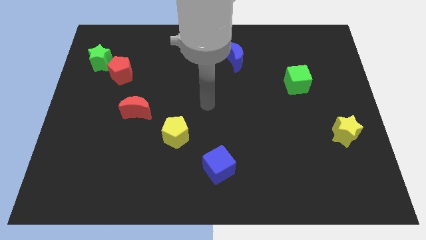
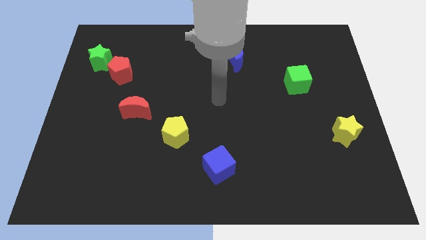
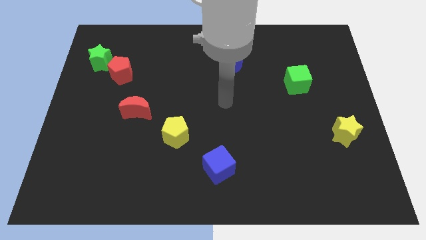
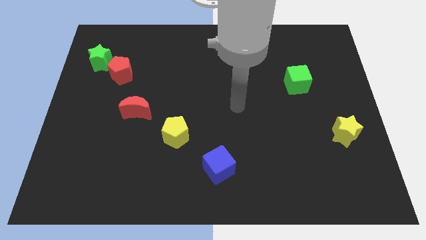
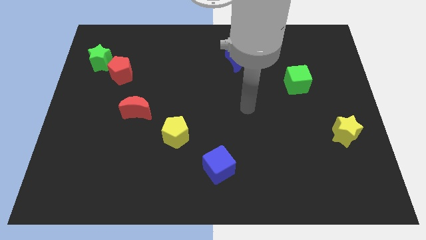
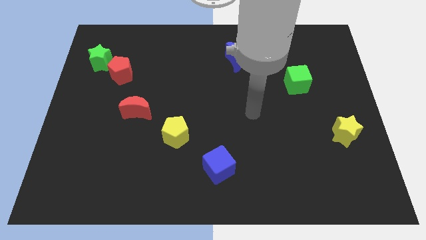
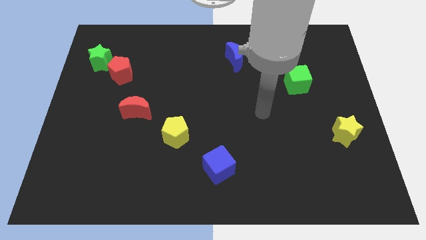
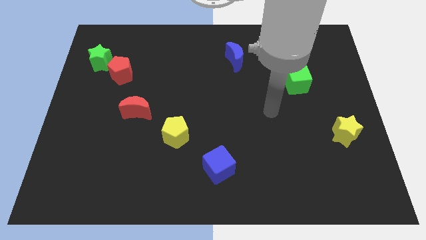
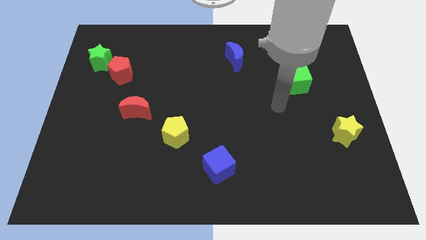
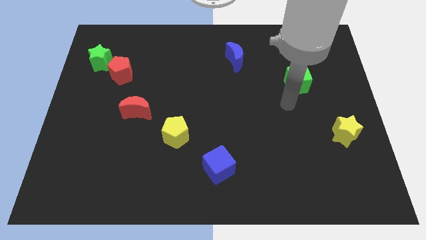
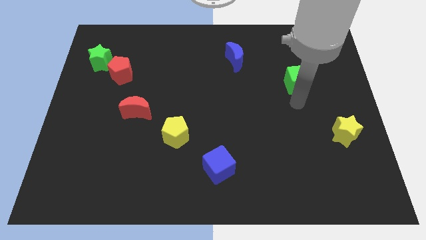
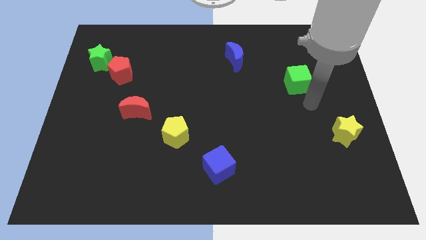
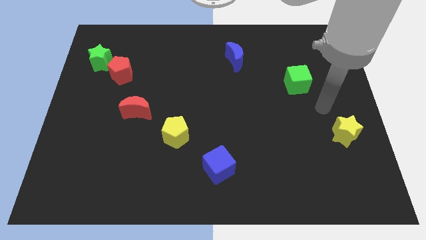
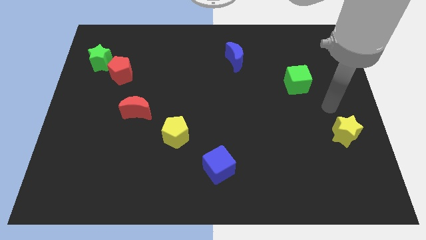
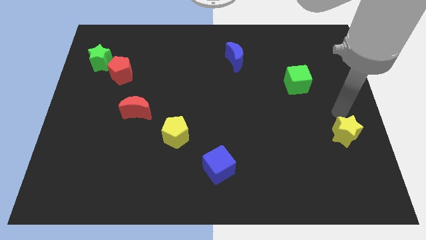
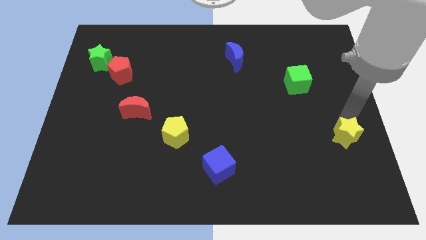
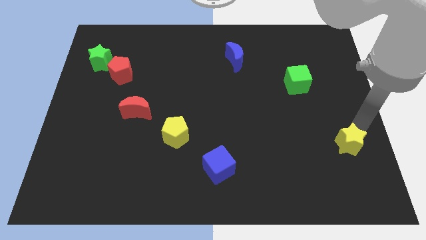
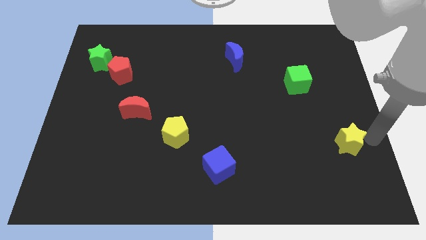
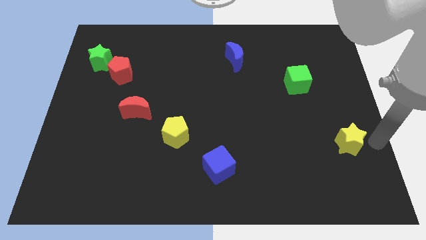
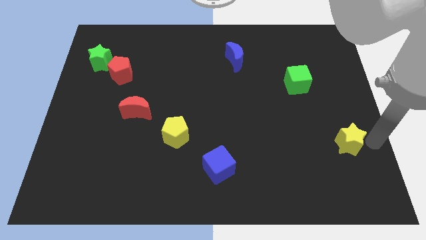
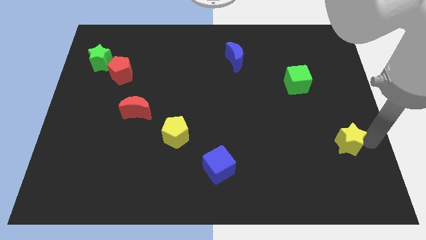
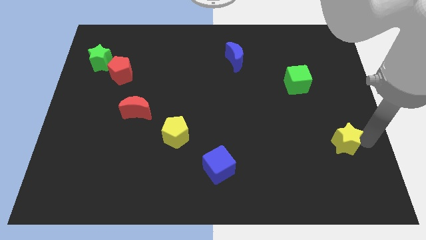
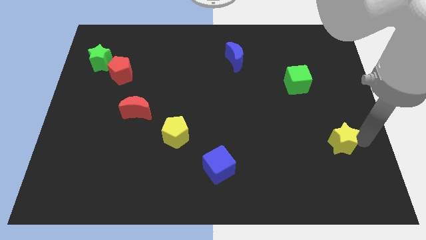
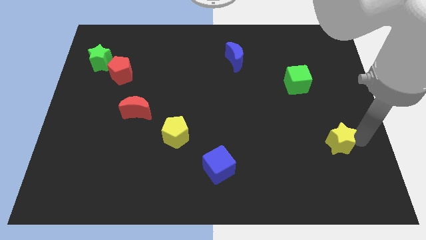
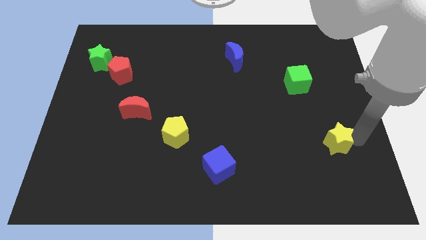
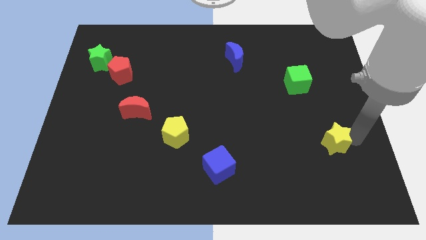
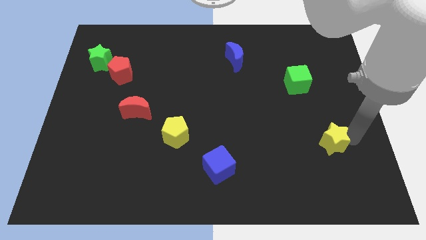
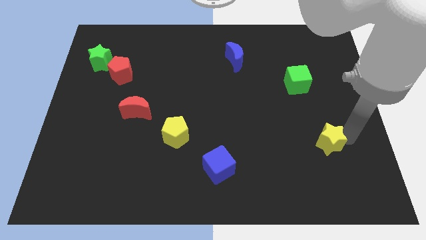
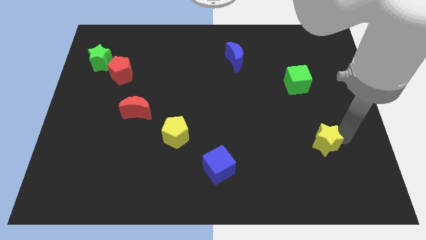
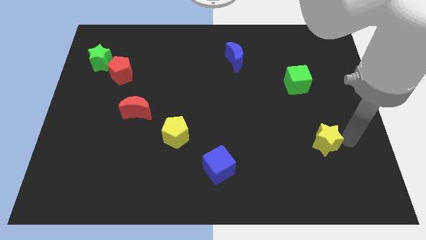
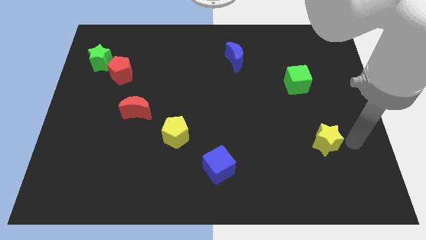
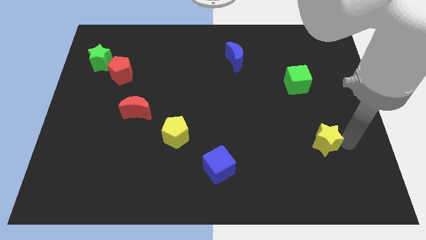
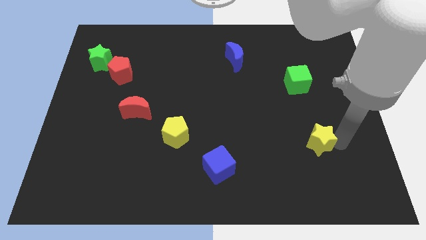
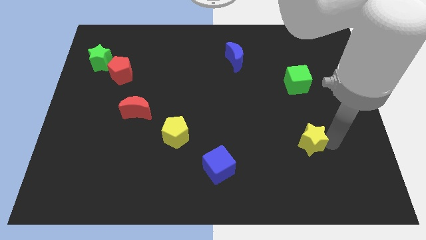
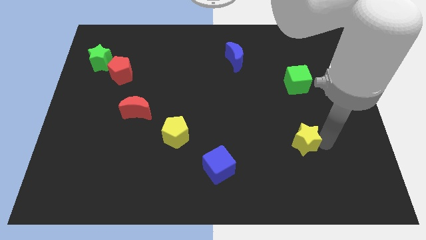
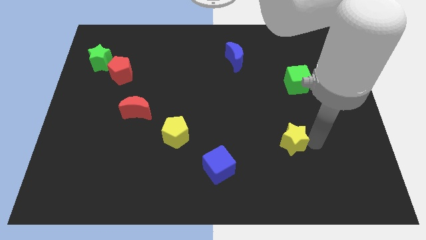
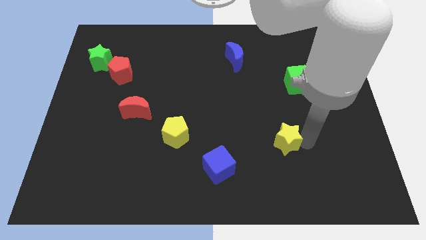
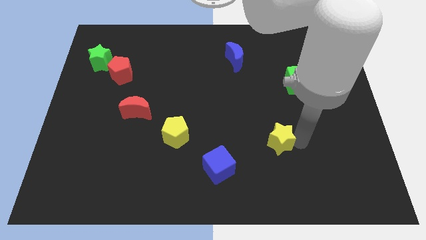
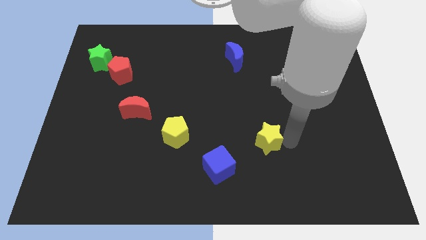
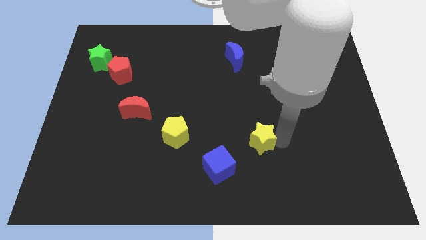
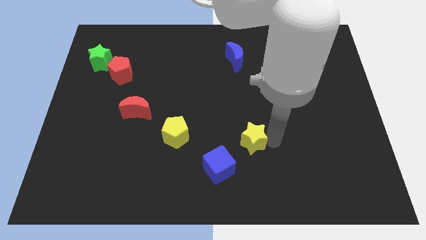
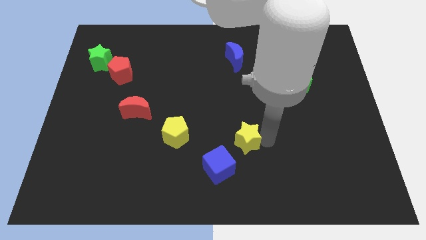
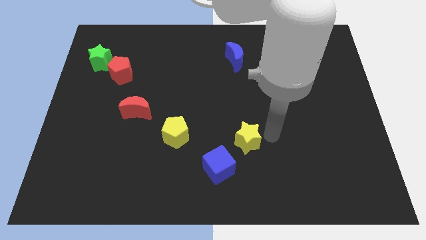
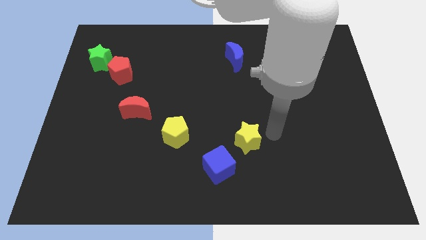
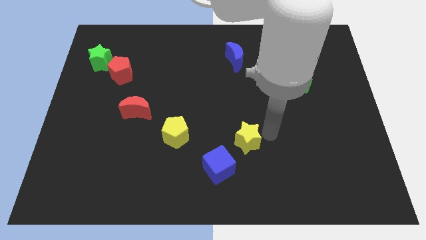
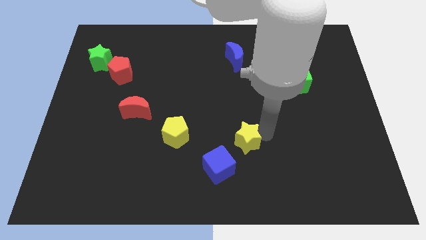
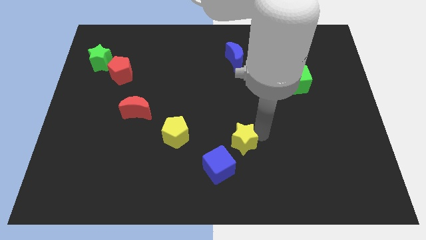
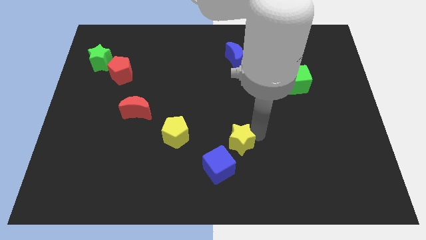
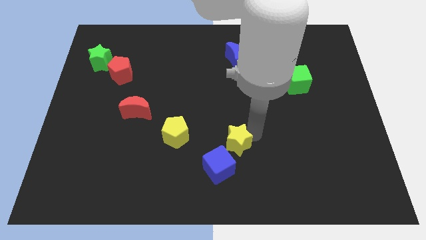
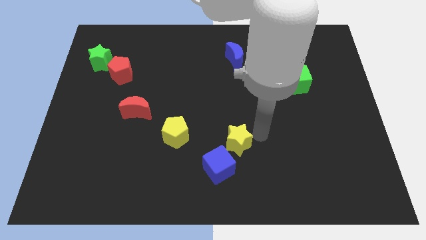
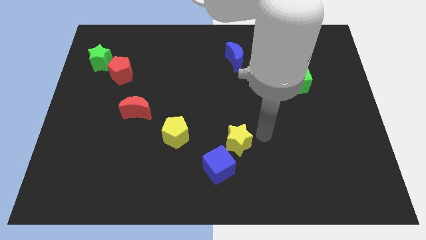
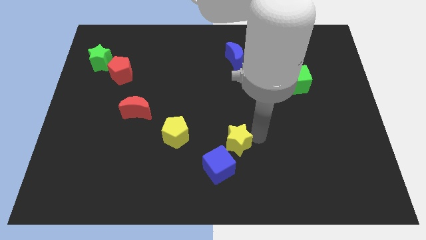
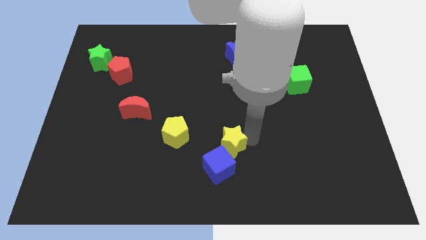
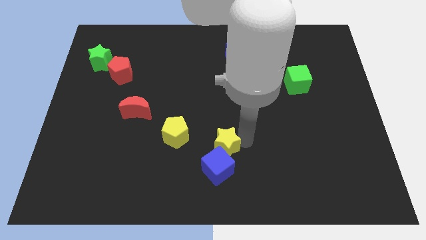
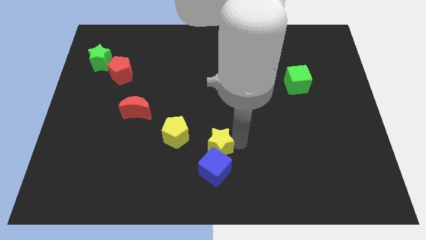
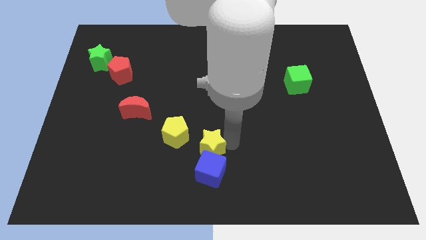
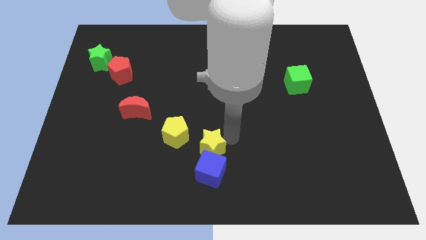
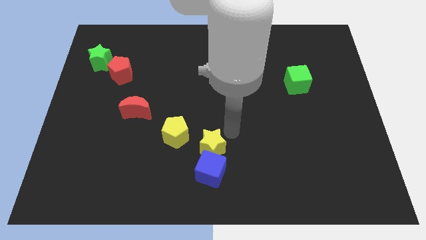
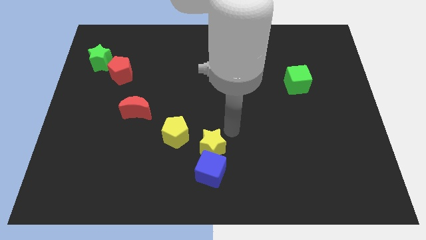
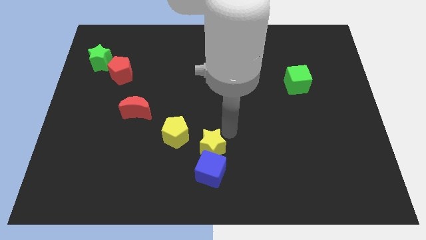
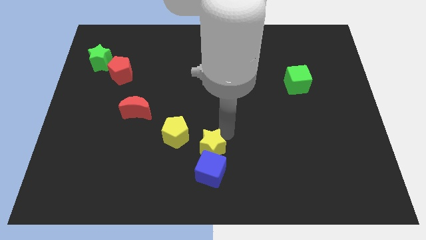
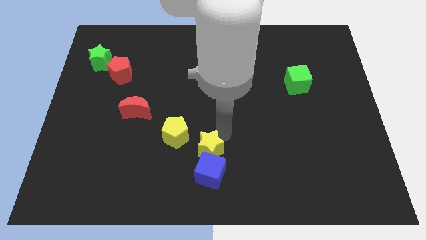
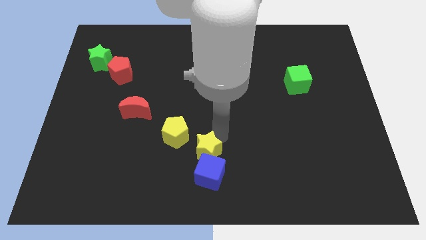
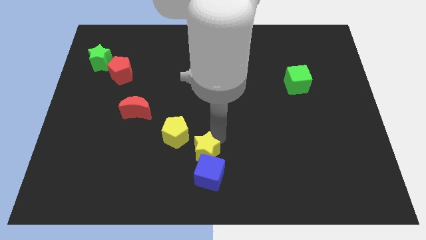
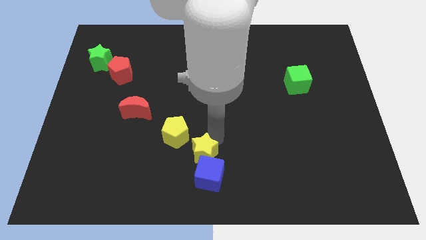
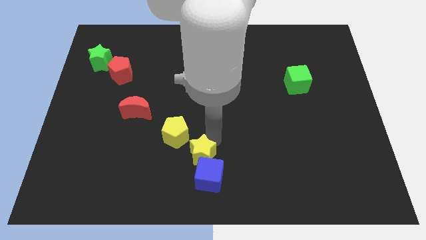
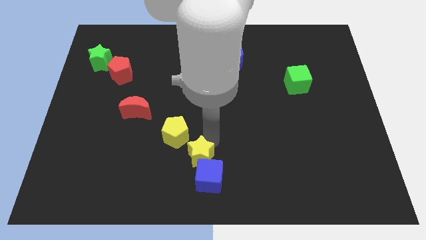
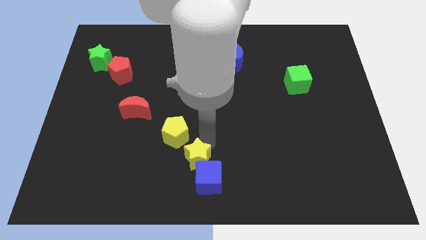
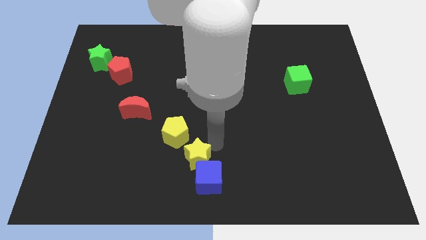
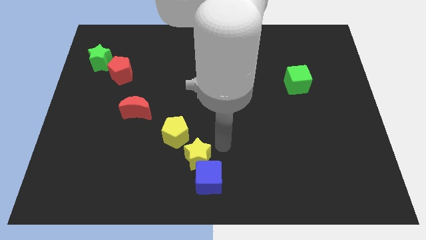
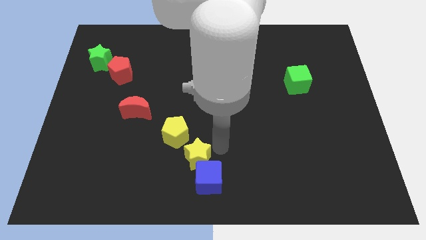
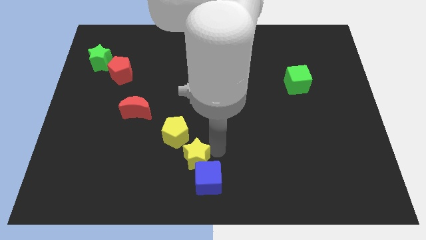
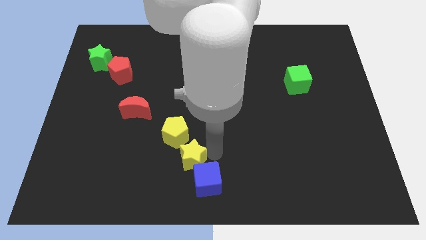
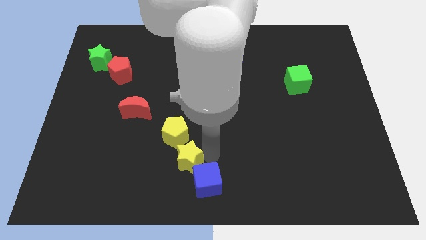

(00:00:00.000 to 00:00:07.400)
slide the yellow star to the left of the blue cube

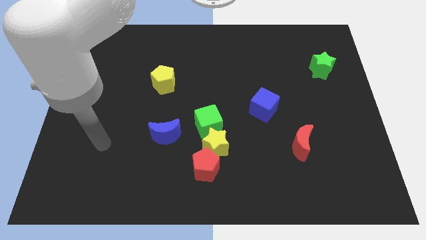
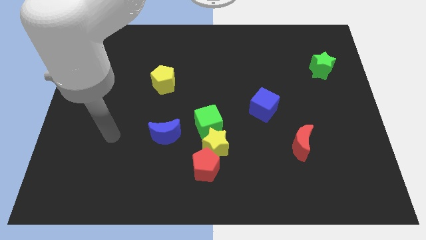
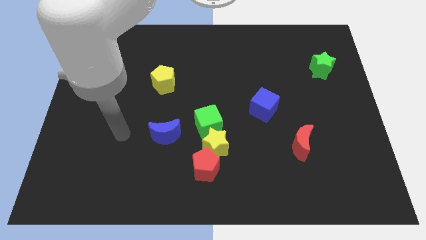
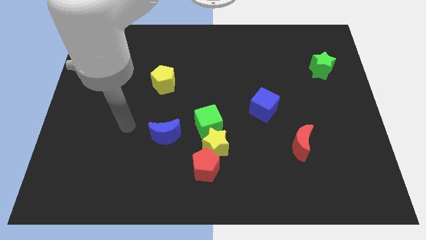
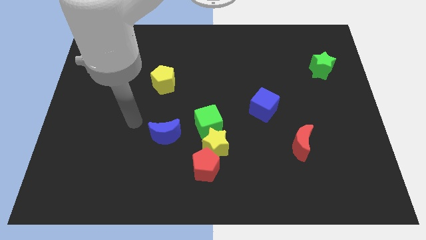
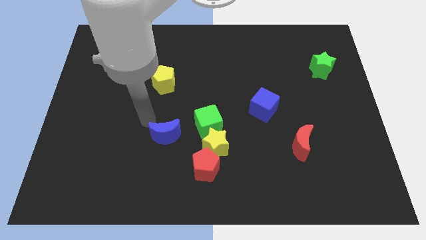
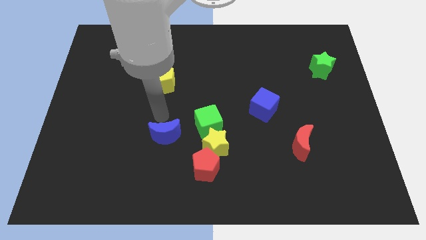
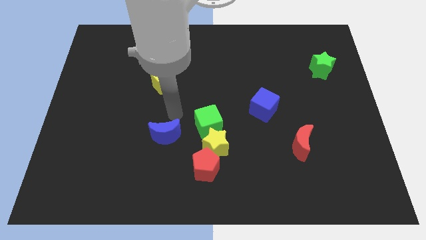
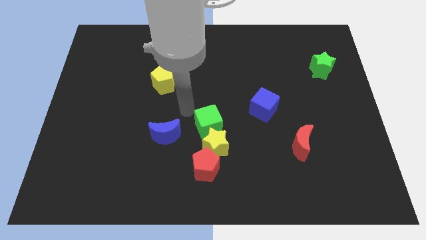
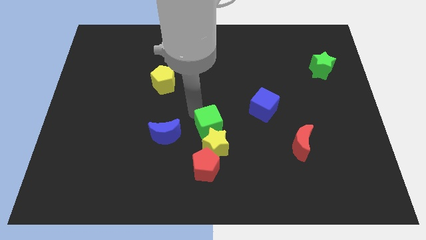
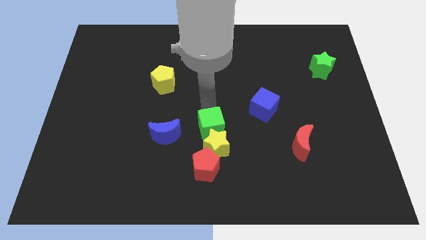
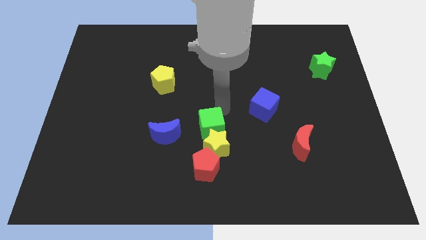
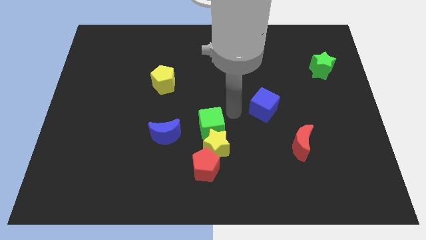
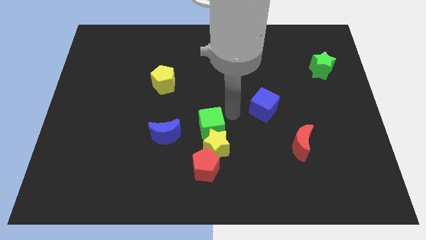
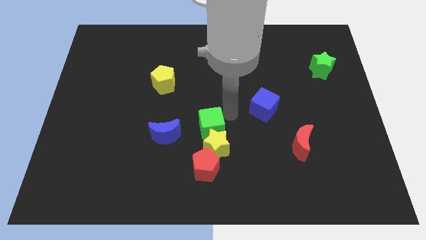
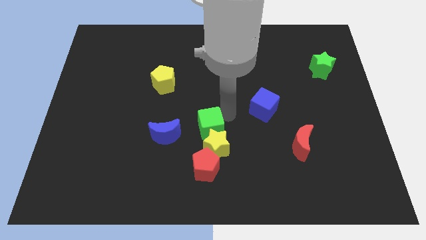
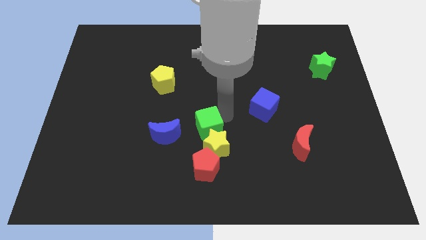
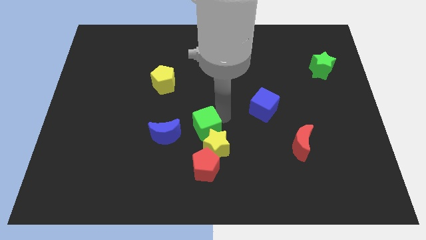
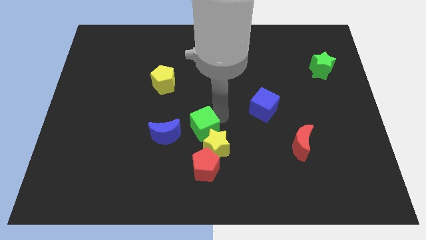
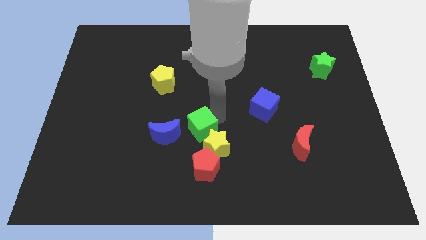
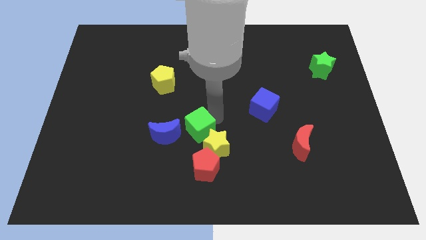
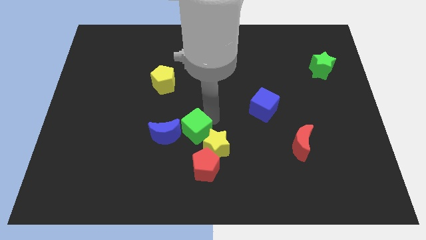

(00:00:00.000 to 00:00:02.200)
put the green cube just left of the yellow star
